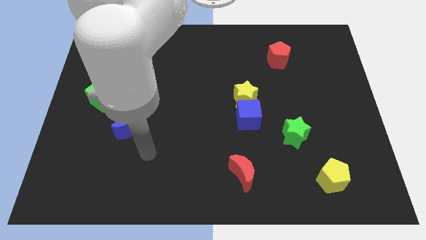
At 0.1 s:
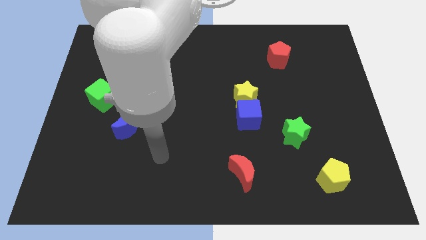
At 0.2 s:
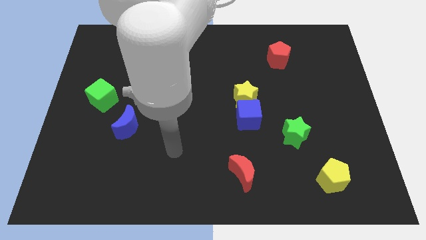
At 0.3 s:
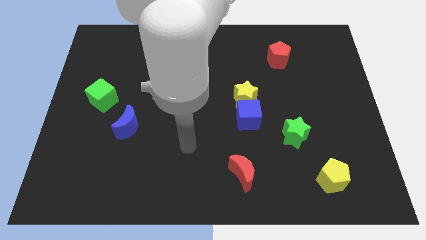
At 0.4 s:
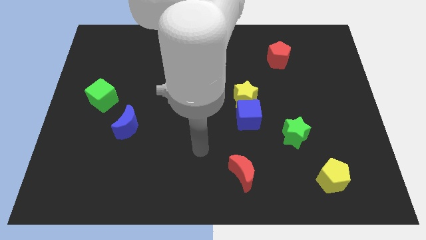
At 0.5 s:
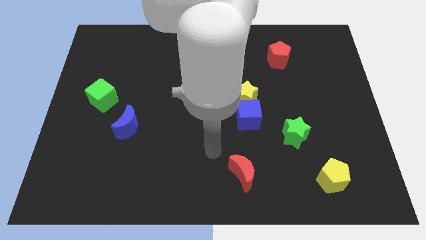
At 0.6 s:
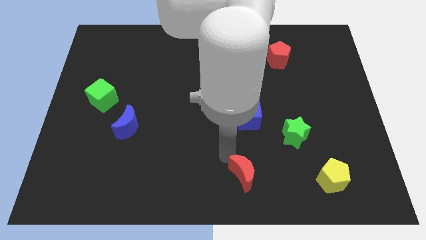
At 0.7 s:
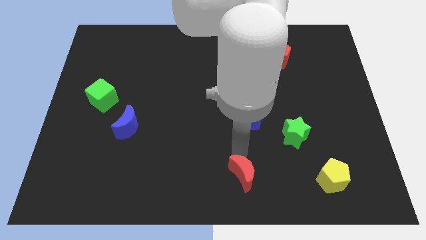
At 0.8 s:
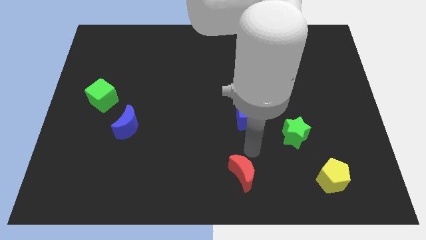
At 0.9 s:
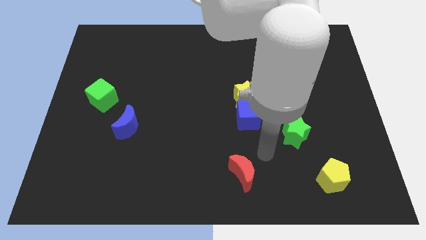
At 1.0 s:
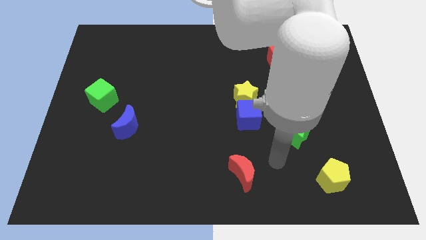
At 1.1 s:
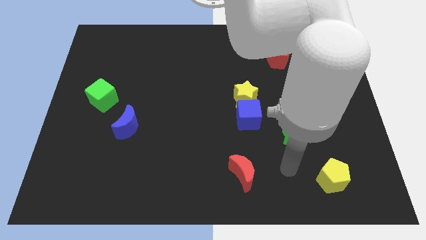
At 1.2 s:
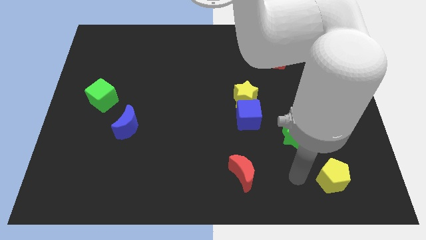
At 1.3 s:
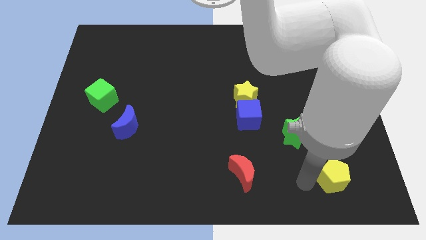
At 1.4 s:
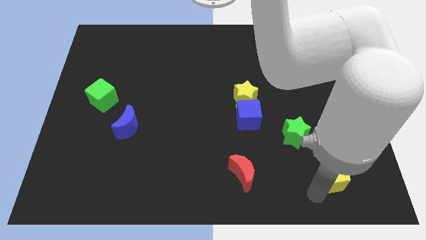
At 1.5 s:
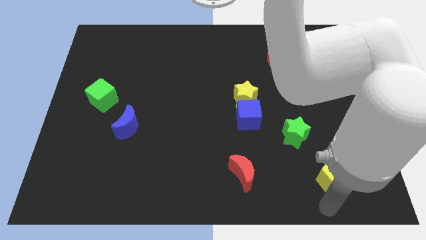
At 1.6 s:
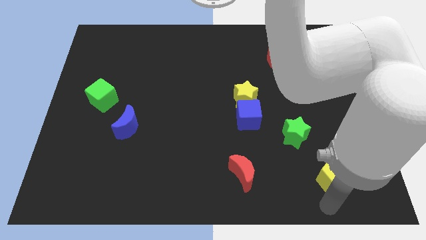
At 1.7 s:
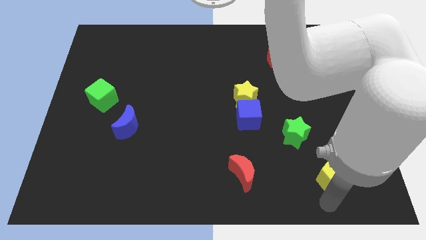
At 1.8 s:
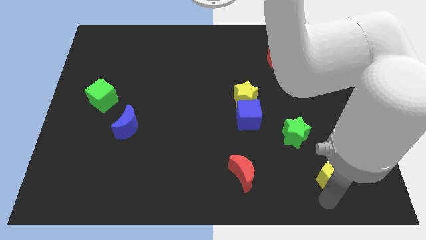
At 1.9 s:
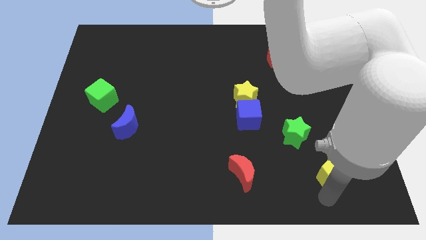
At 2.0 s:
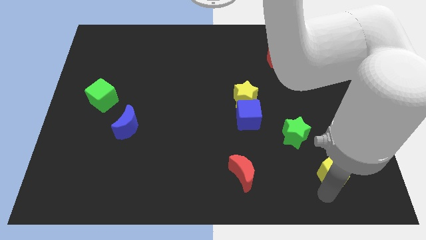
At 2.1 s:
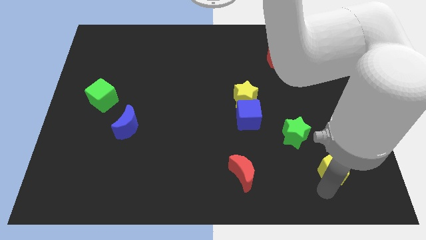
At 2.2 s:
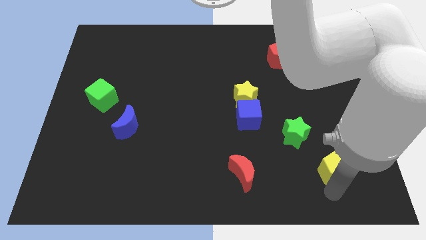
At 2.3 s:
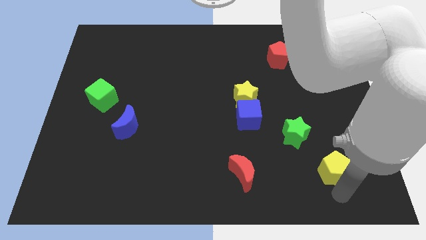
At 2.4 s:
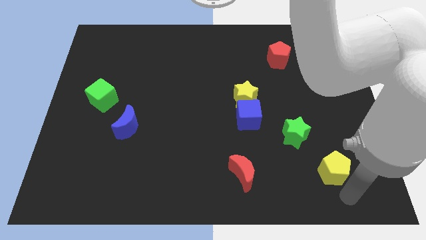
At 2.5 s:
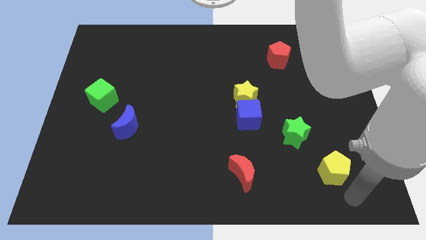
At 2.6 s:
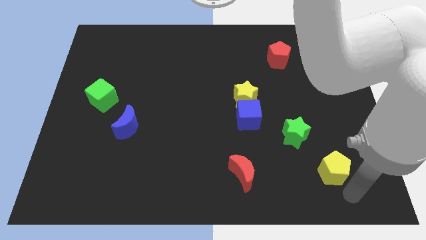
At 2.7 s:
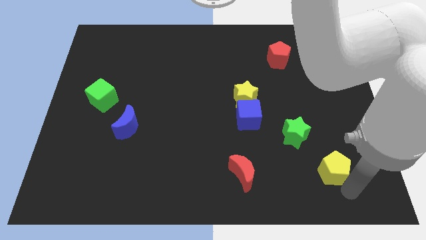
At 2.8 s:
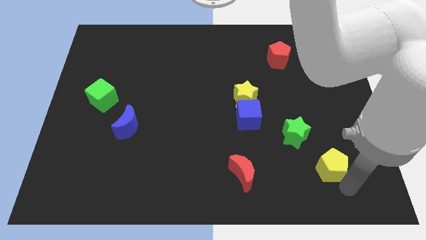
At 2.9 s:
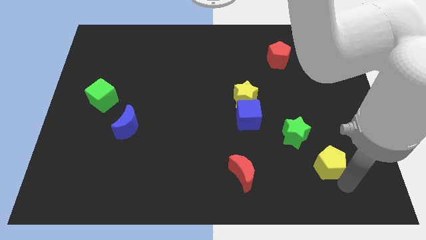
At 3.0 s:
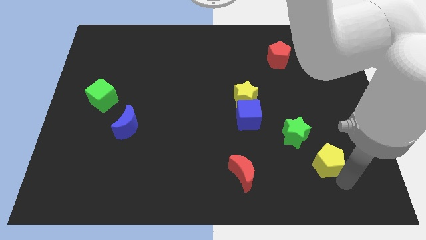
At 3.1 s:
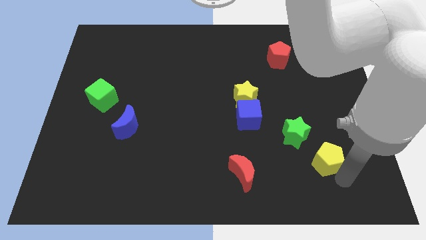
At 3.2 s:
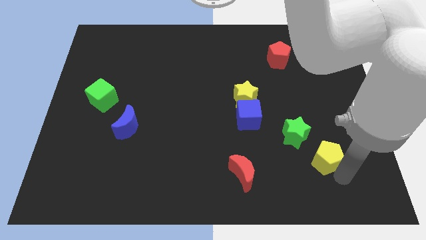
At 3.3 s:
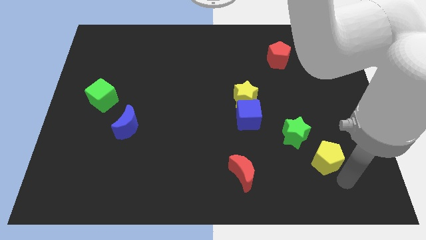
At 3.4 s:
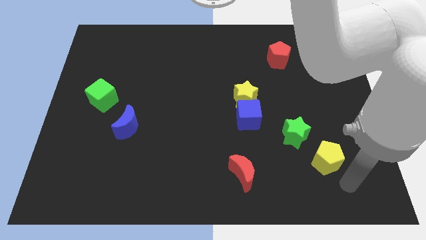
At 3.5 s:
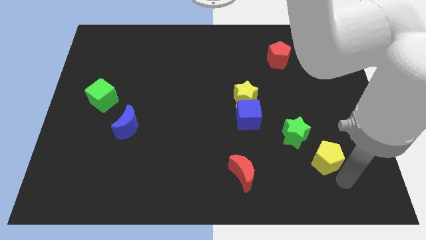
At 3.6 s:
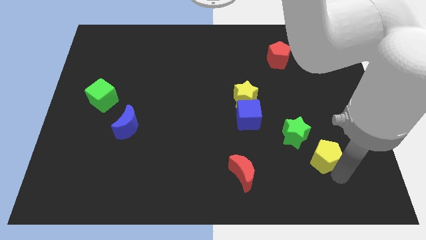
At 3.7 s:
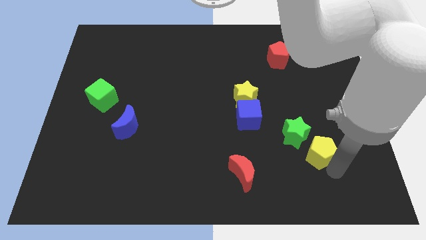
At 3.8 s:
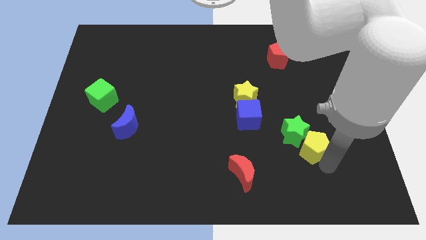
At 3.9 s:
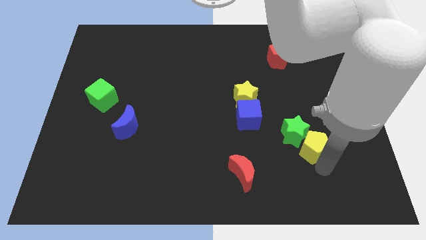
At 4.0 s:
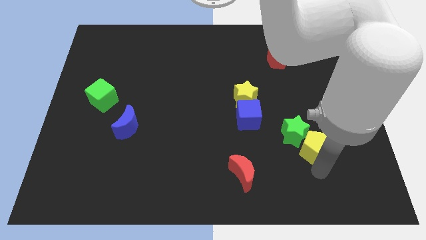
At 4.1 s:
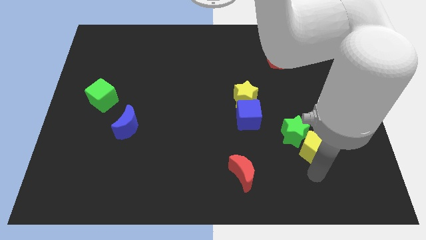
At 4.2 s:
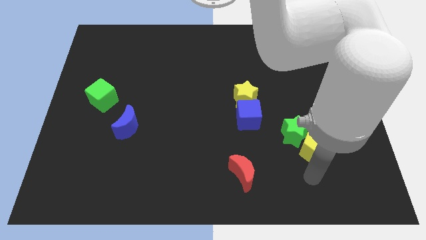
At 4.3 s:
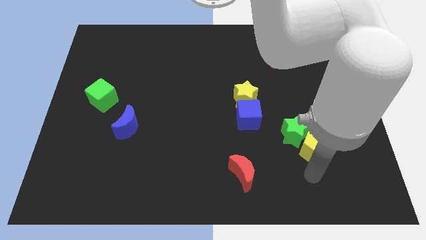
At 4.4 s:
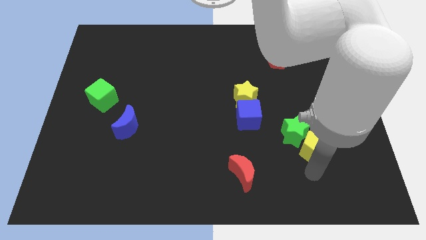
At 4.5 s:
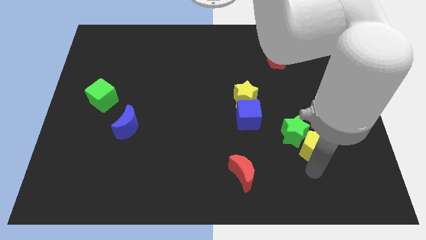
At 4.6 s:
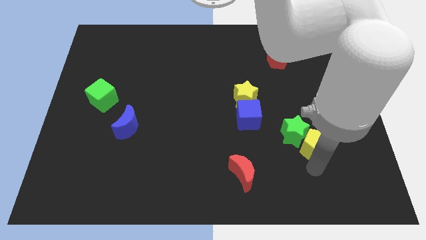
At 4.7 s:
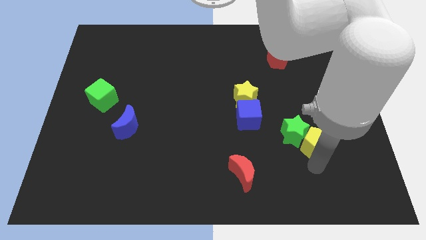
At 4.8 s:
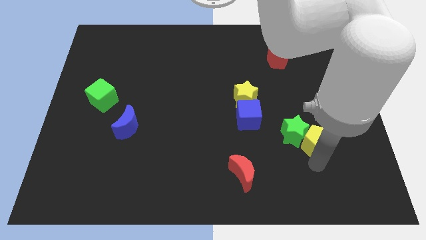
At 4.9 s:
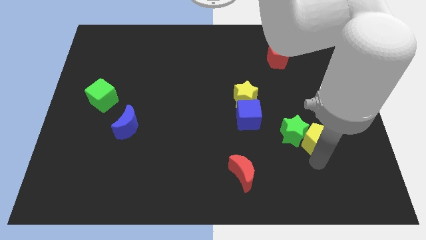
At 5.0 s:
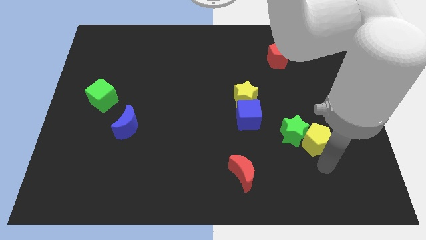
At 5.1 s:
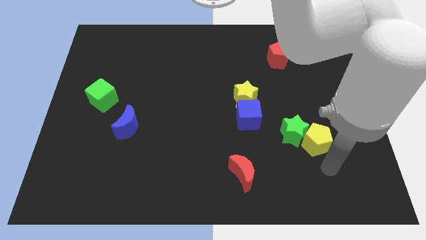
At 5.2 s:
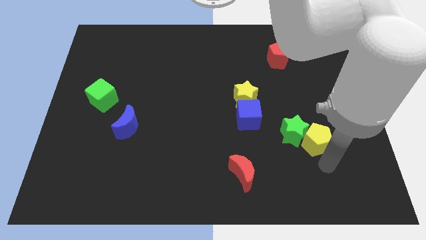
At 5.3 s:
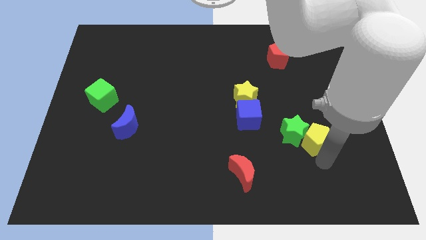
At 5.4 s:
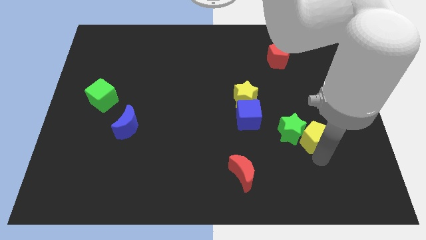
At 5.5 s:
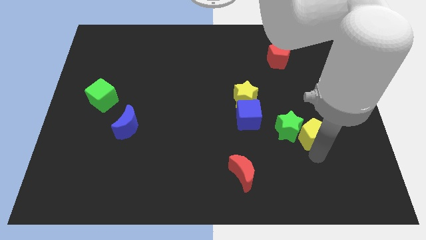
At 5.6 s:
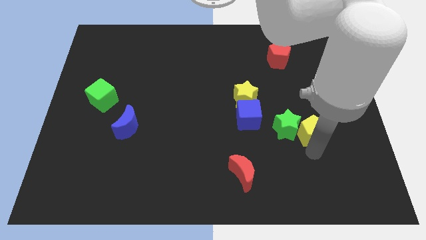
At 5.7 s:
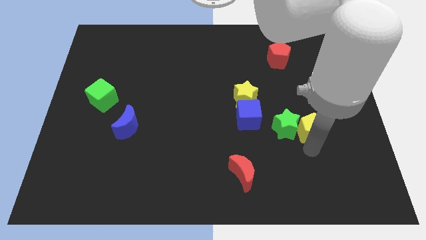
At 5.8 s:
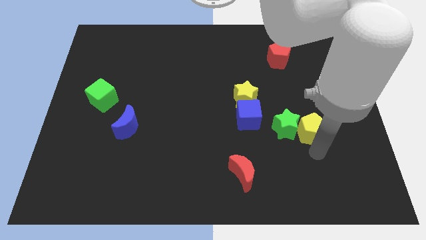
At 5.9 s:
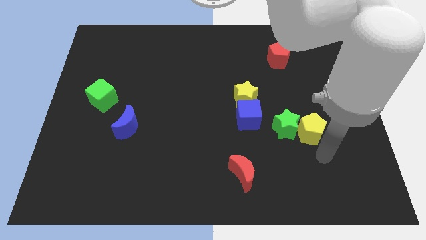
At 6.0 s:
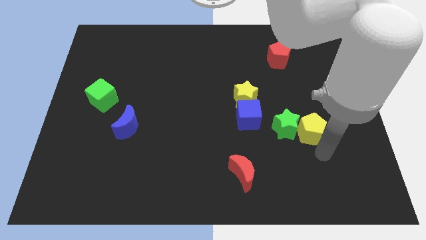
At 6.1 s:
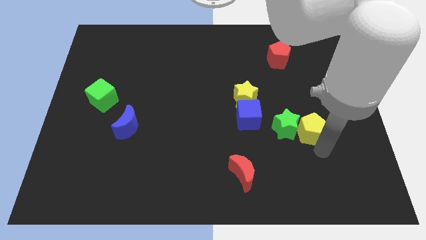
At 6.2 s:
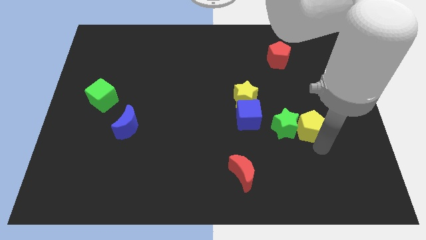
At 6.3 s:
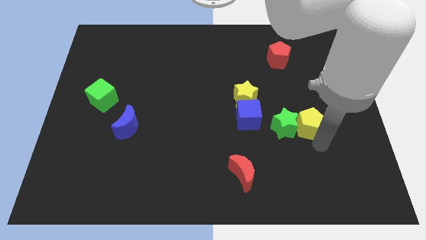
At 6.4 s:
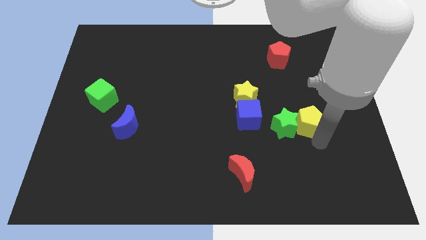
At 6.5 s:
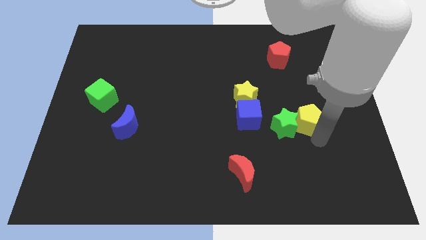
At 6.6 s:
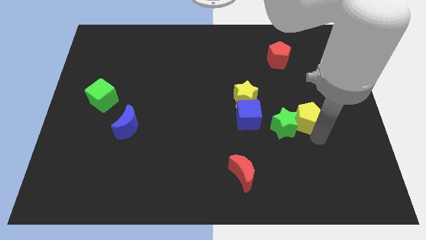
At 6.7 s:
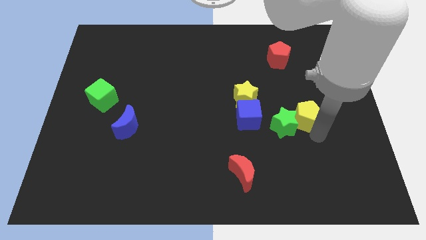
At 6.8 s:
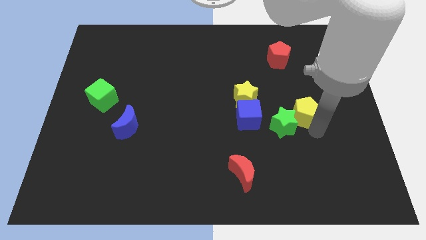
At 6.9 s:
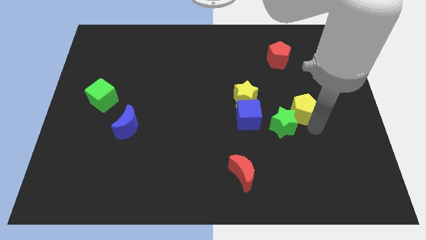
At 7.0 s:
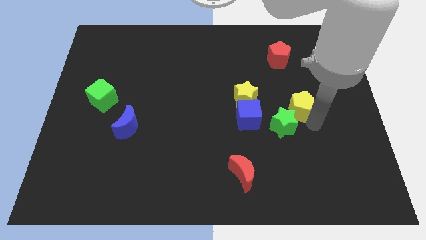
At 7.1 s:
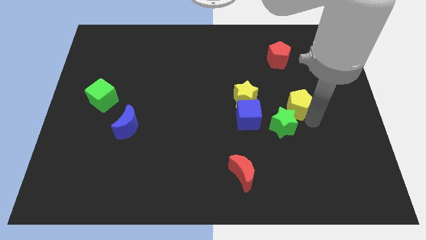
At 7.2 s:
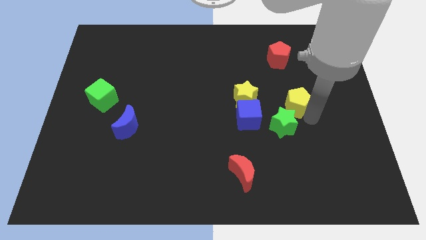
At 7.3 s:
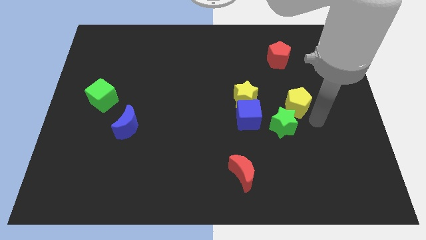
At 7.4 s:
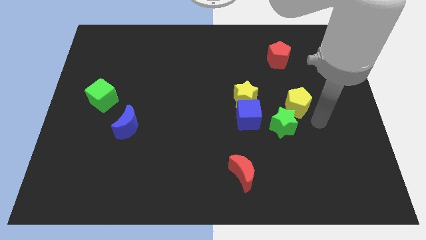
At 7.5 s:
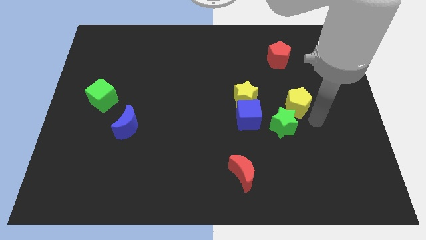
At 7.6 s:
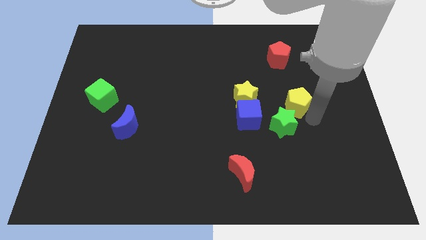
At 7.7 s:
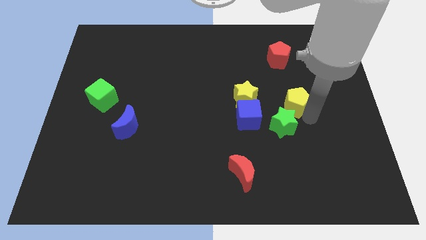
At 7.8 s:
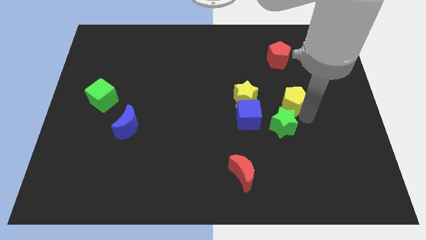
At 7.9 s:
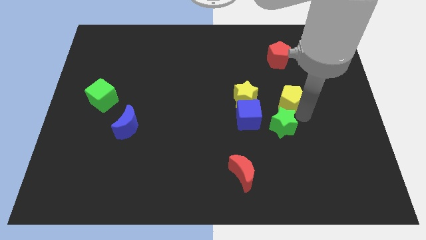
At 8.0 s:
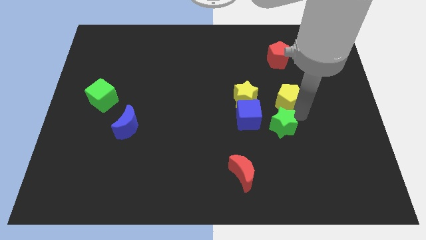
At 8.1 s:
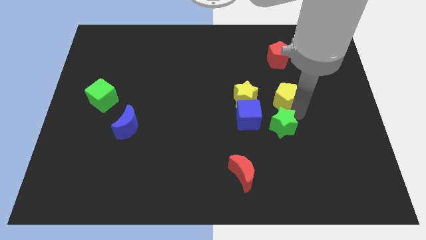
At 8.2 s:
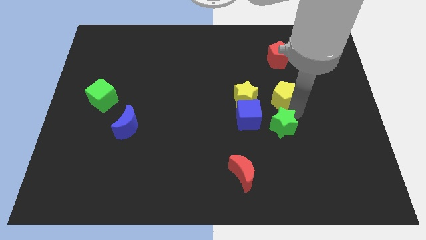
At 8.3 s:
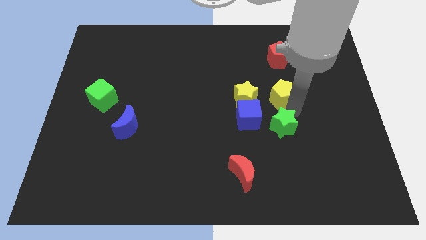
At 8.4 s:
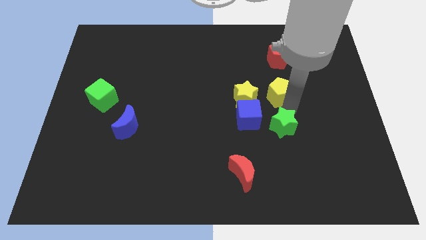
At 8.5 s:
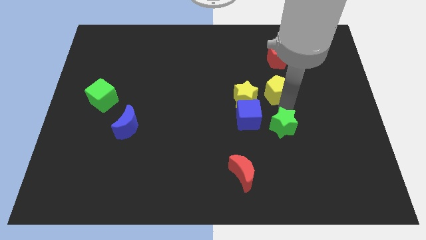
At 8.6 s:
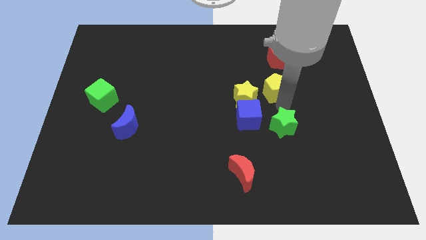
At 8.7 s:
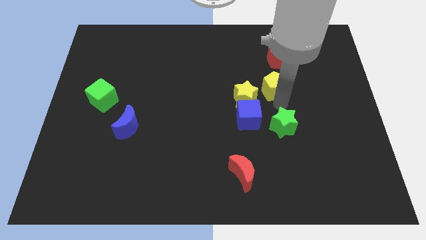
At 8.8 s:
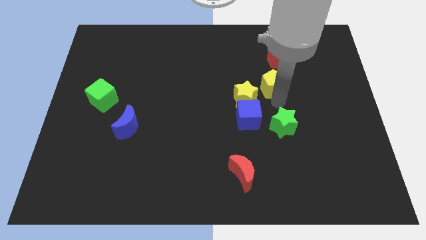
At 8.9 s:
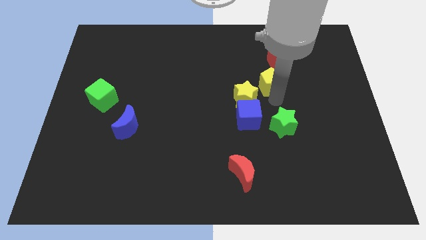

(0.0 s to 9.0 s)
put the yellow pentagon diagonally down and to the left of the red pentagon
